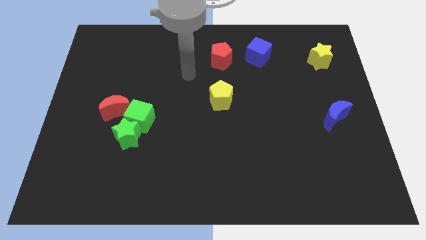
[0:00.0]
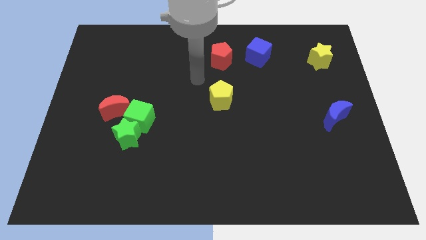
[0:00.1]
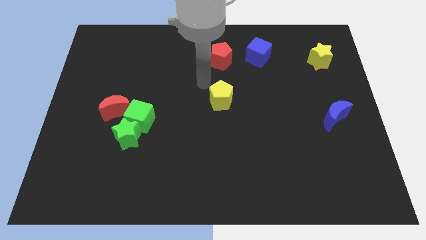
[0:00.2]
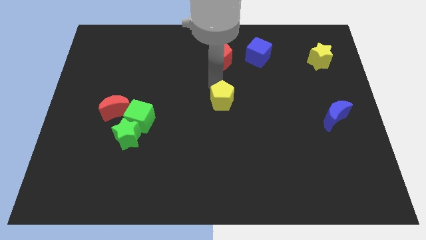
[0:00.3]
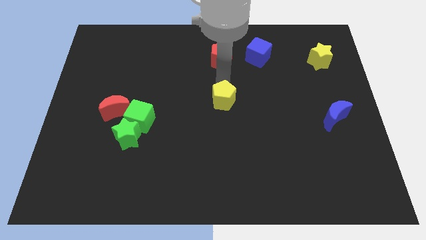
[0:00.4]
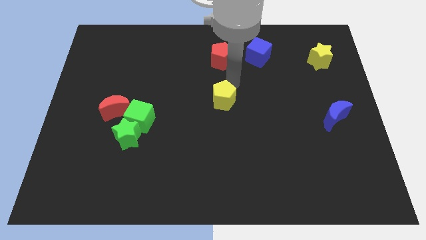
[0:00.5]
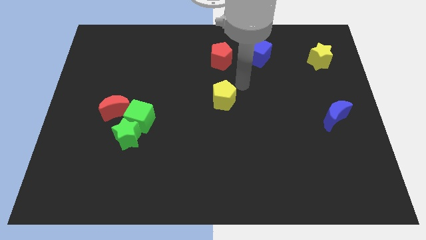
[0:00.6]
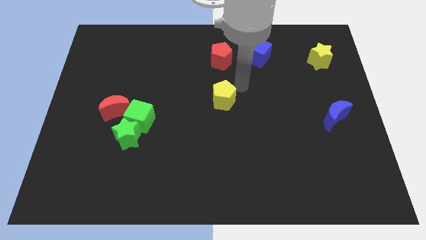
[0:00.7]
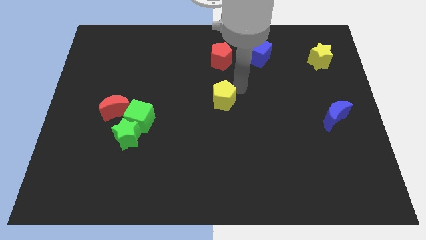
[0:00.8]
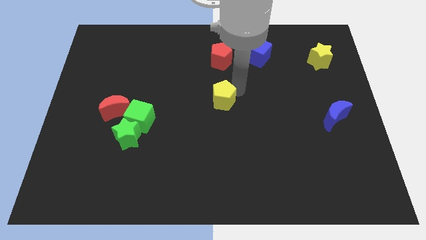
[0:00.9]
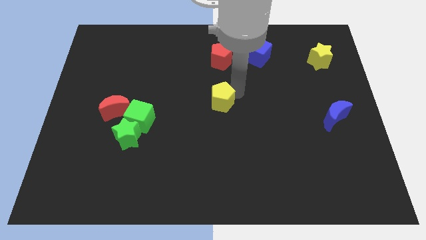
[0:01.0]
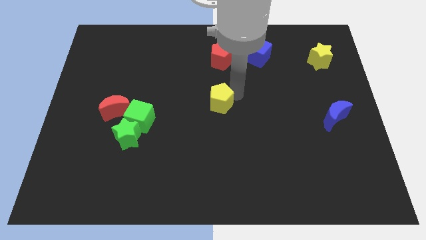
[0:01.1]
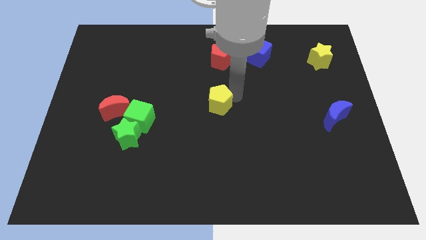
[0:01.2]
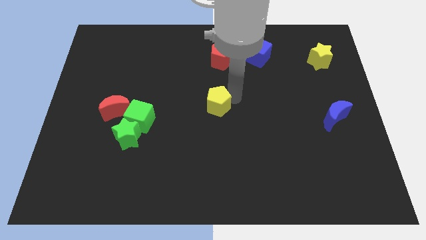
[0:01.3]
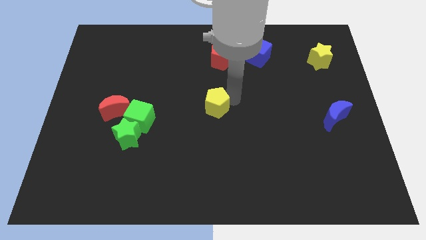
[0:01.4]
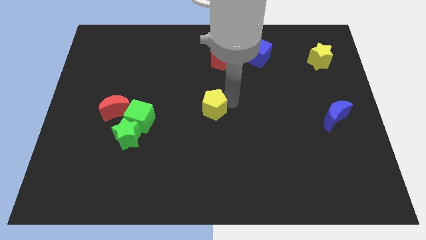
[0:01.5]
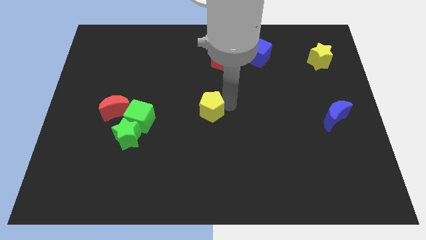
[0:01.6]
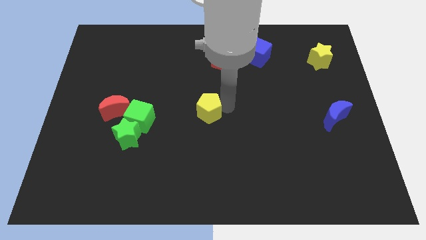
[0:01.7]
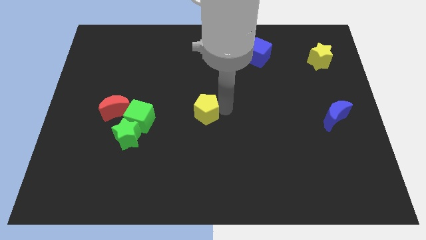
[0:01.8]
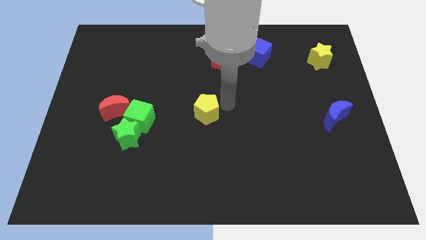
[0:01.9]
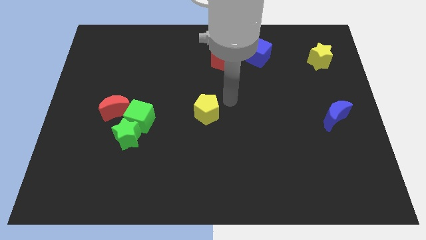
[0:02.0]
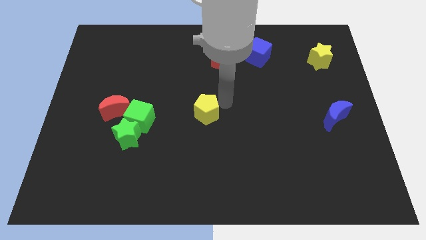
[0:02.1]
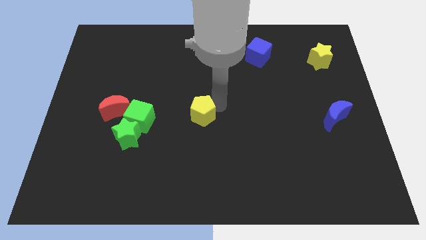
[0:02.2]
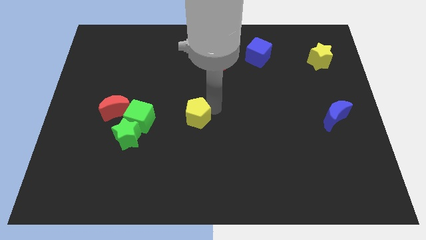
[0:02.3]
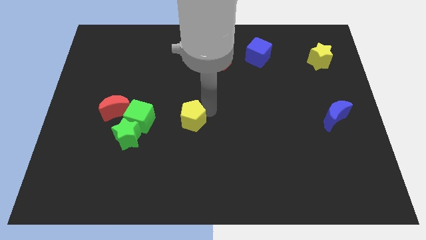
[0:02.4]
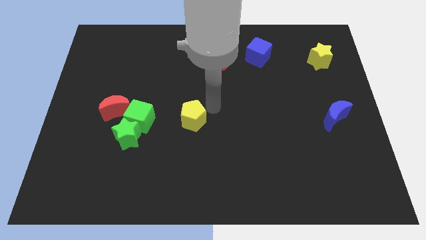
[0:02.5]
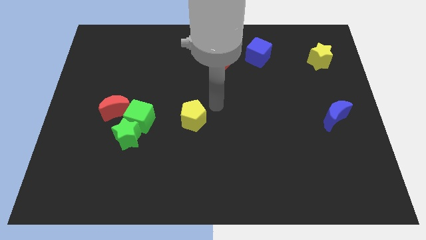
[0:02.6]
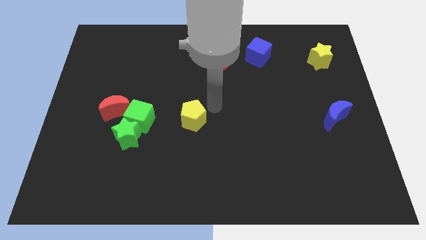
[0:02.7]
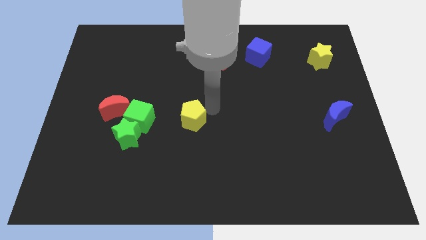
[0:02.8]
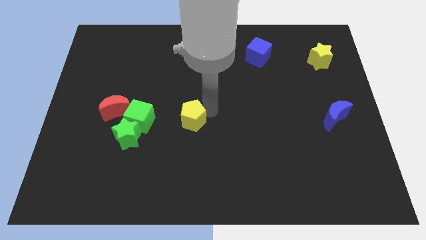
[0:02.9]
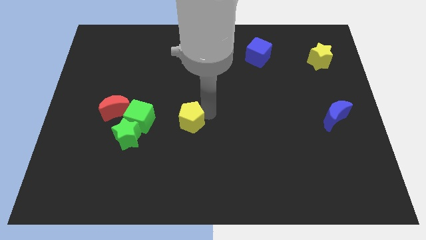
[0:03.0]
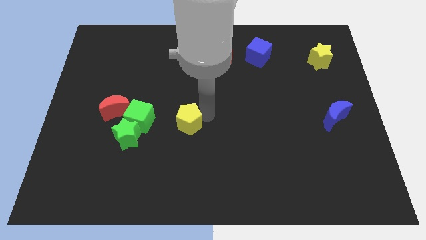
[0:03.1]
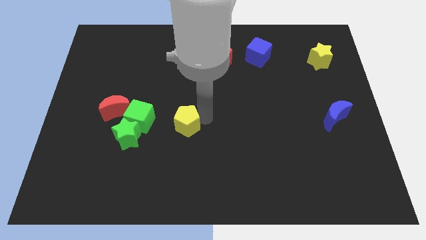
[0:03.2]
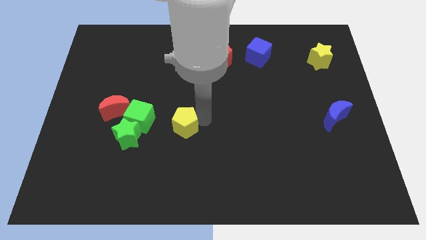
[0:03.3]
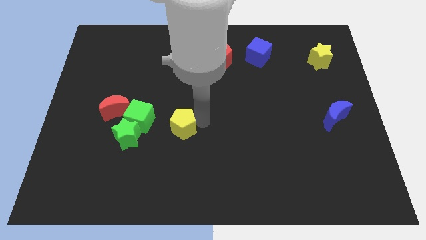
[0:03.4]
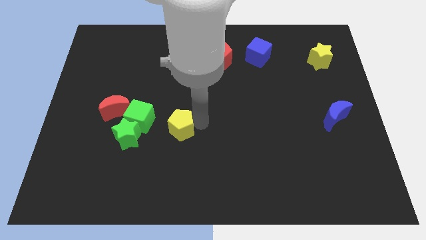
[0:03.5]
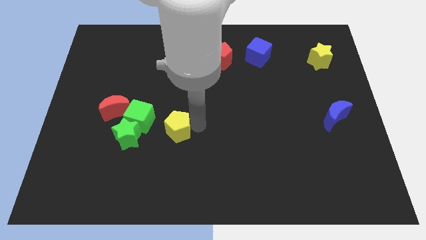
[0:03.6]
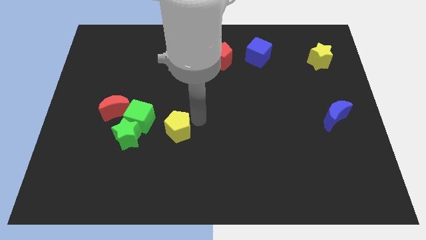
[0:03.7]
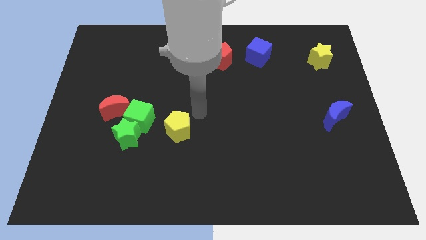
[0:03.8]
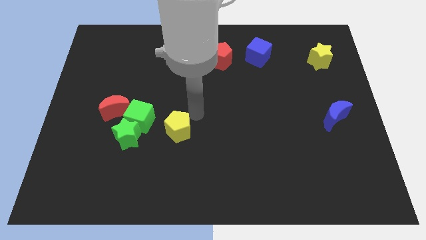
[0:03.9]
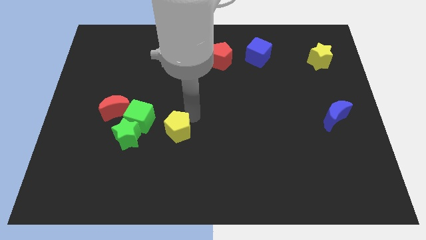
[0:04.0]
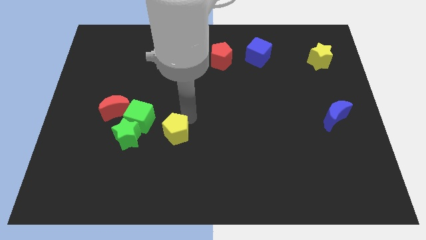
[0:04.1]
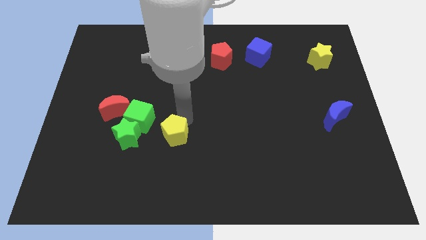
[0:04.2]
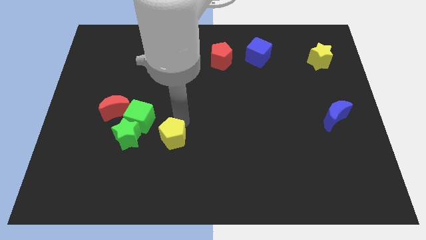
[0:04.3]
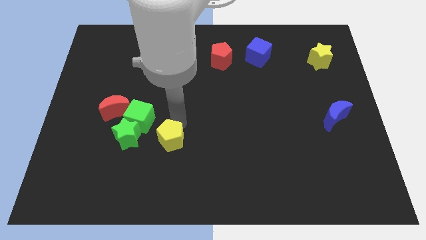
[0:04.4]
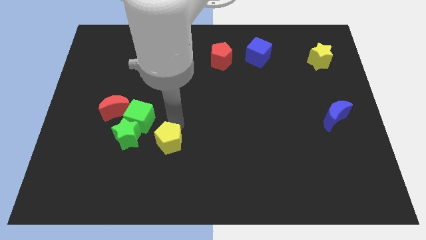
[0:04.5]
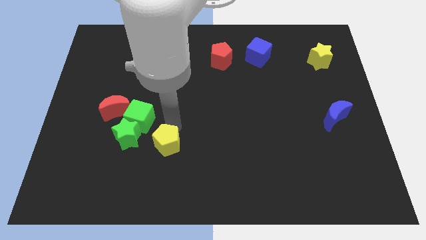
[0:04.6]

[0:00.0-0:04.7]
slide the yellow pentagon to the bottom right of the green star

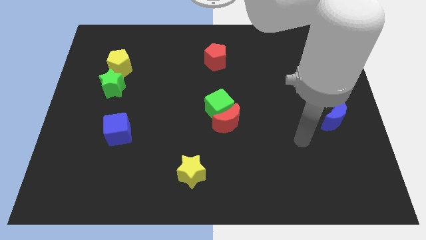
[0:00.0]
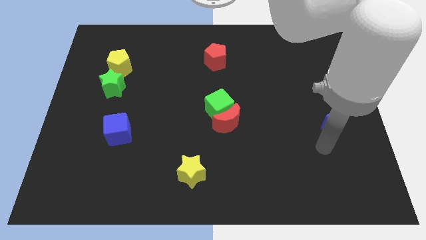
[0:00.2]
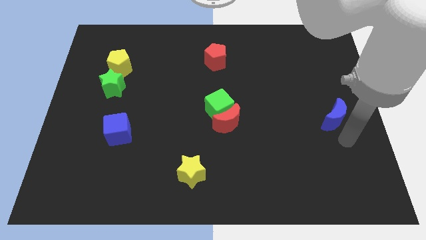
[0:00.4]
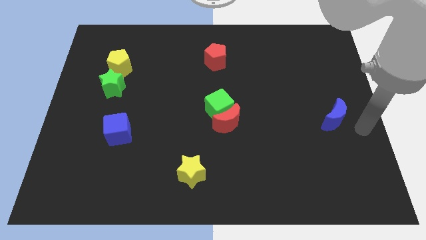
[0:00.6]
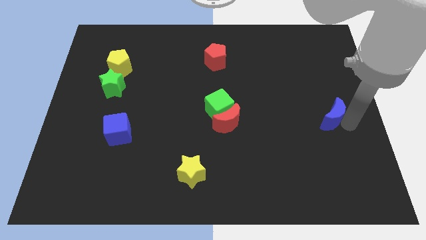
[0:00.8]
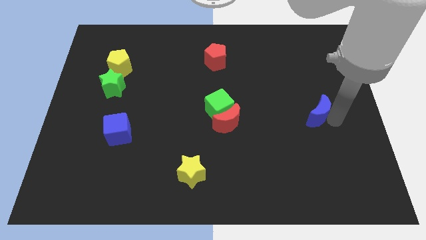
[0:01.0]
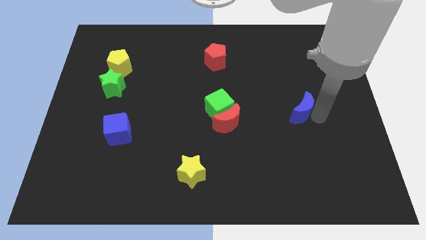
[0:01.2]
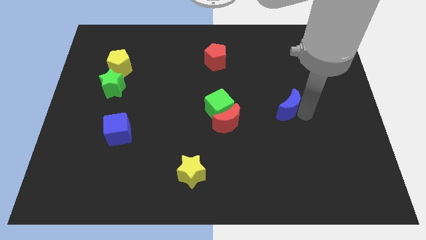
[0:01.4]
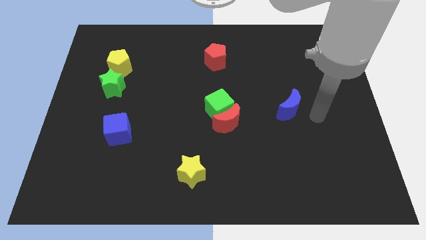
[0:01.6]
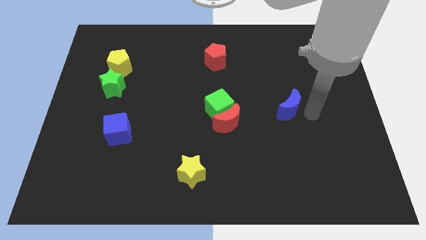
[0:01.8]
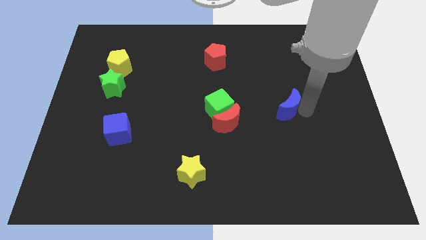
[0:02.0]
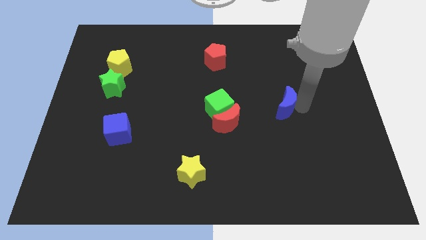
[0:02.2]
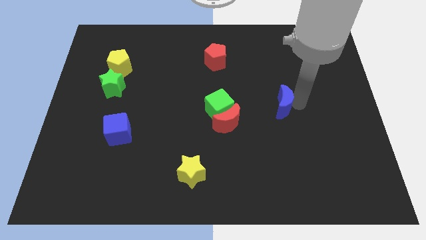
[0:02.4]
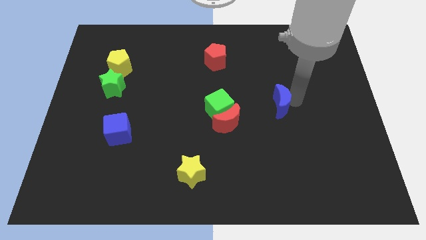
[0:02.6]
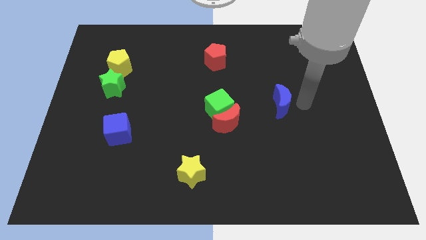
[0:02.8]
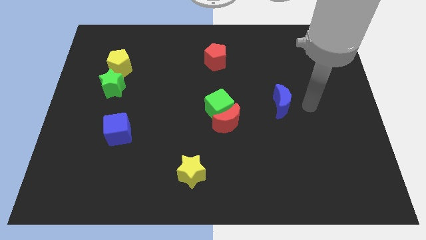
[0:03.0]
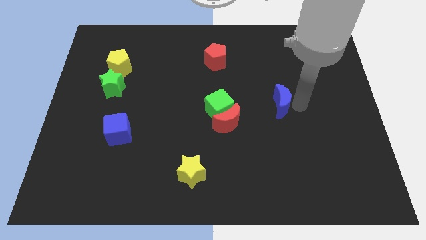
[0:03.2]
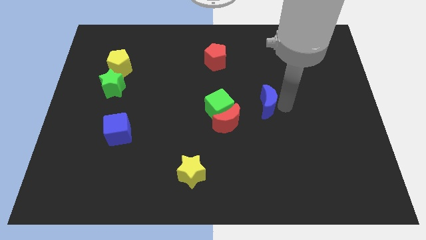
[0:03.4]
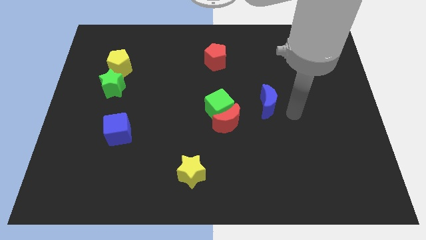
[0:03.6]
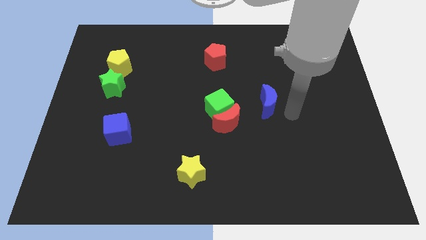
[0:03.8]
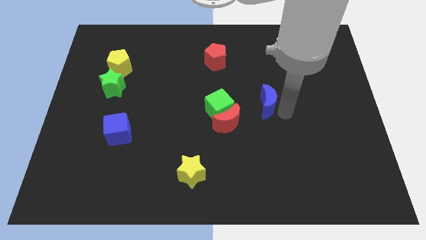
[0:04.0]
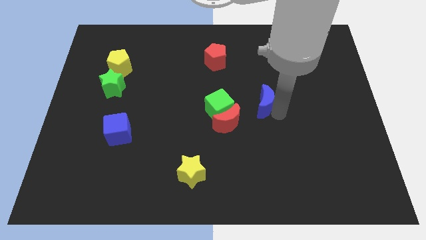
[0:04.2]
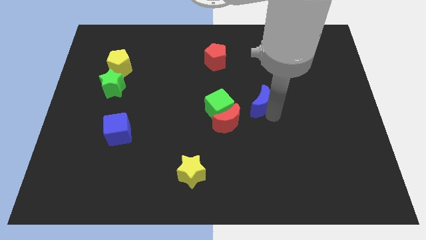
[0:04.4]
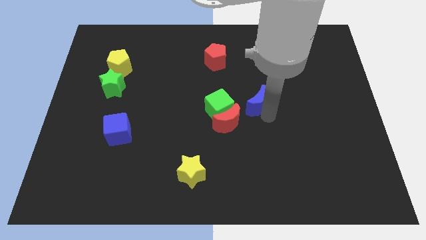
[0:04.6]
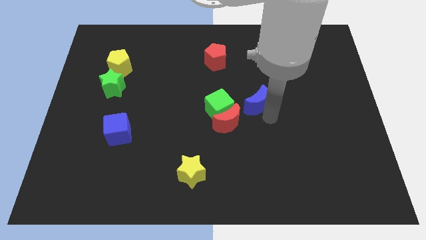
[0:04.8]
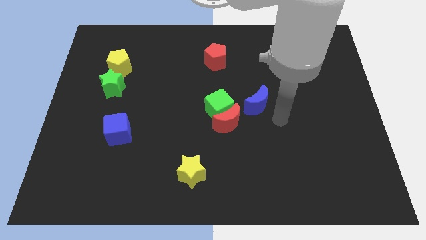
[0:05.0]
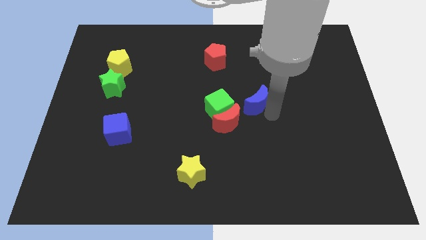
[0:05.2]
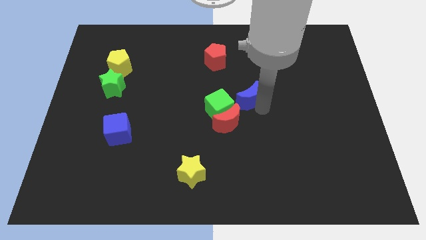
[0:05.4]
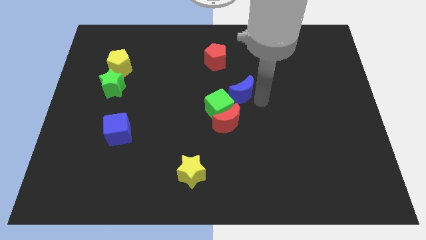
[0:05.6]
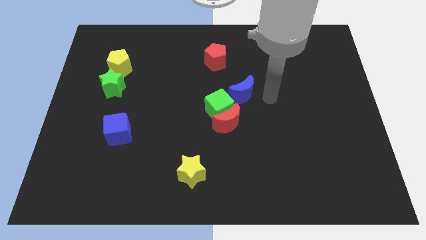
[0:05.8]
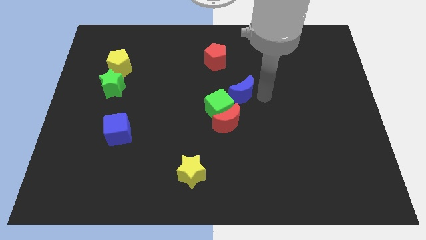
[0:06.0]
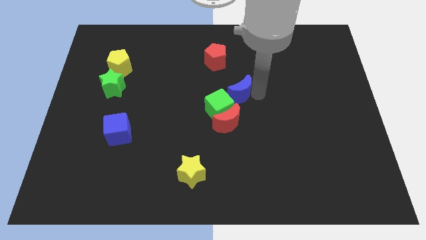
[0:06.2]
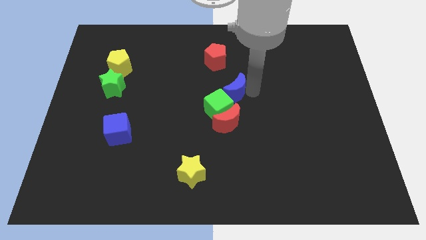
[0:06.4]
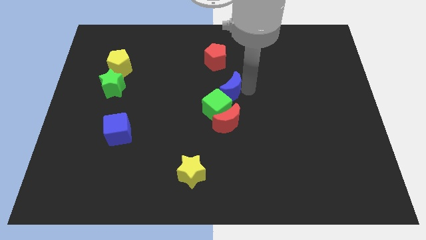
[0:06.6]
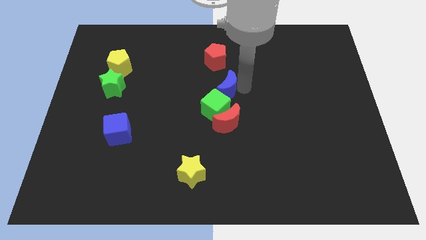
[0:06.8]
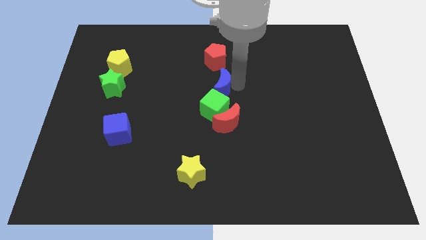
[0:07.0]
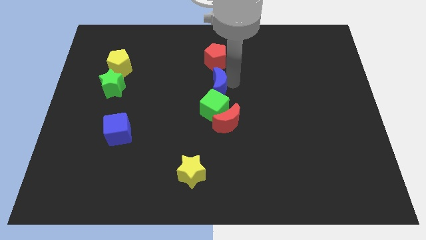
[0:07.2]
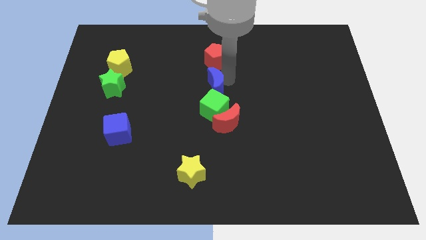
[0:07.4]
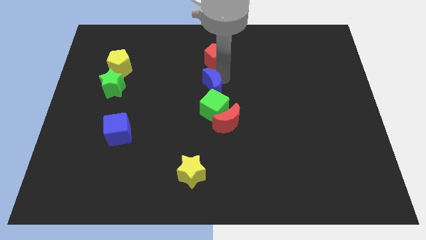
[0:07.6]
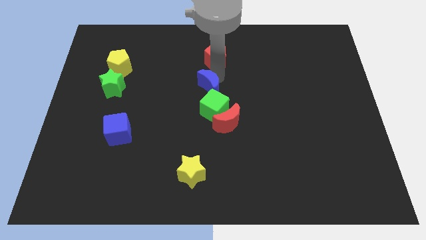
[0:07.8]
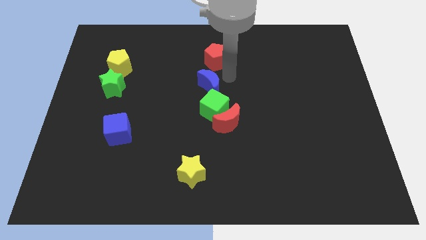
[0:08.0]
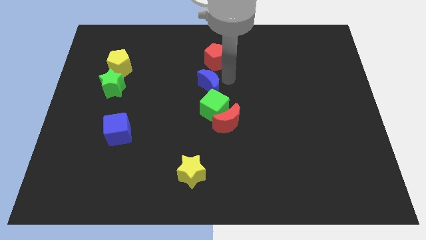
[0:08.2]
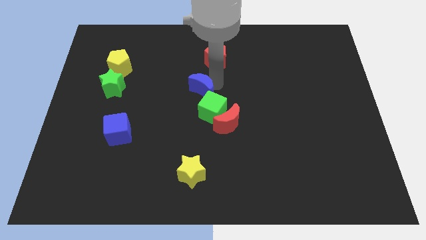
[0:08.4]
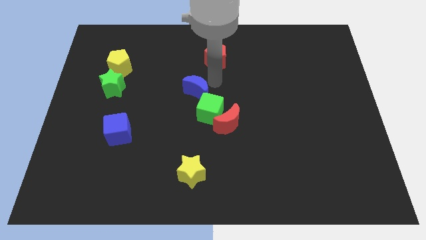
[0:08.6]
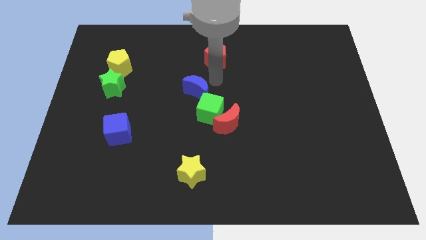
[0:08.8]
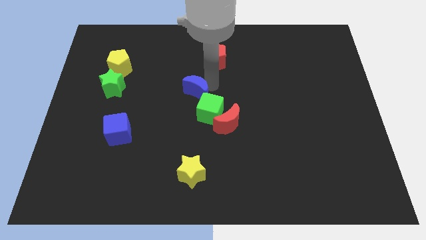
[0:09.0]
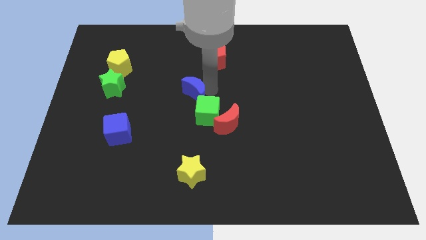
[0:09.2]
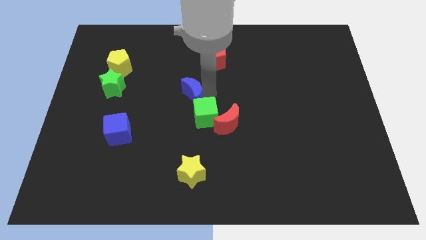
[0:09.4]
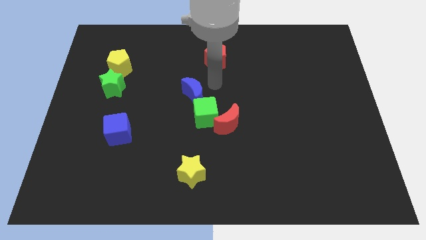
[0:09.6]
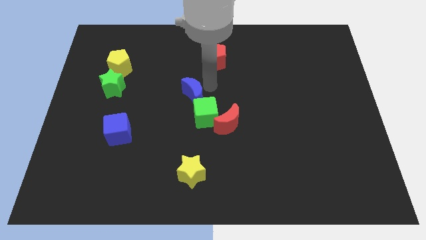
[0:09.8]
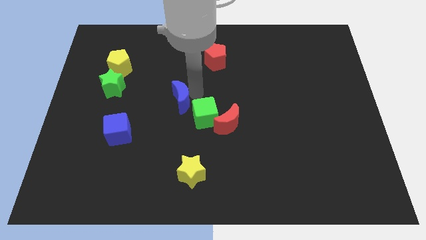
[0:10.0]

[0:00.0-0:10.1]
push the blue moon to the left side of the green cube
